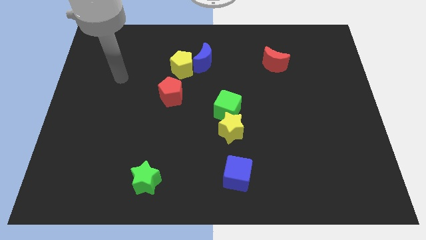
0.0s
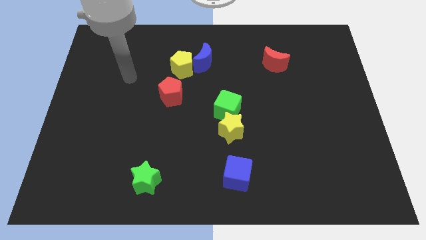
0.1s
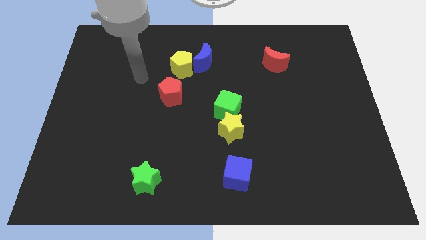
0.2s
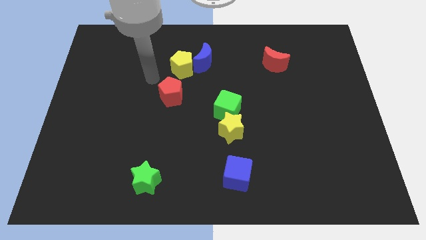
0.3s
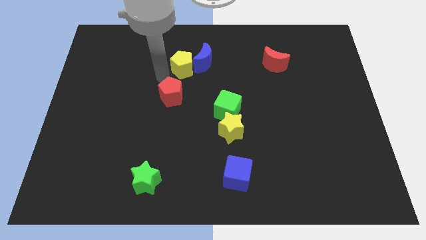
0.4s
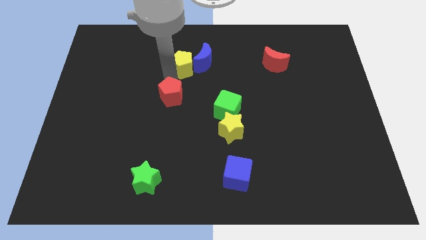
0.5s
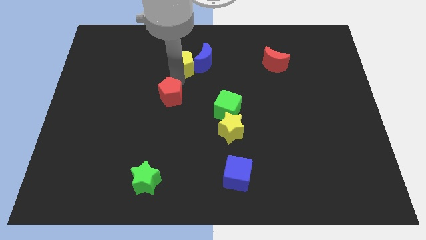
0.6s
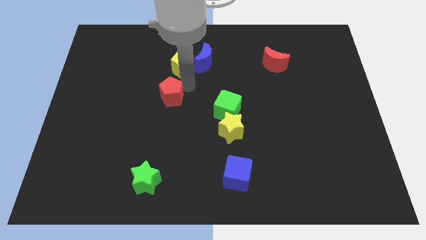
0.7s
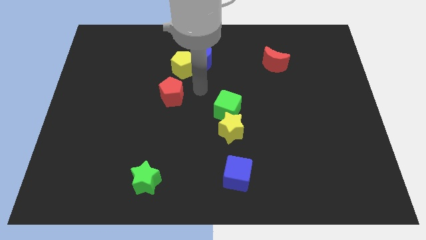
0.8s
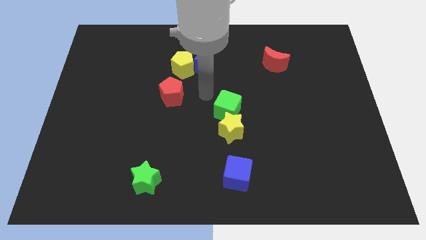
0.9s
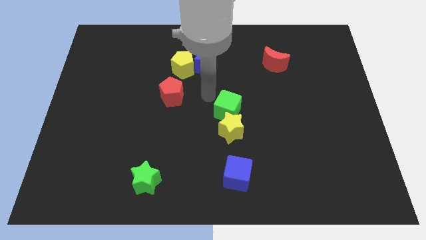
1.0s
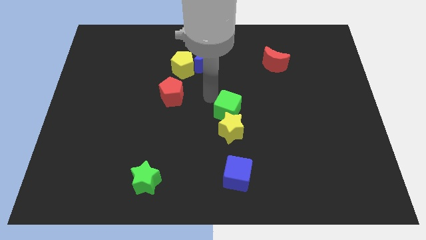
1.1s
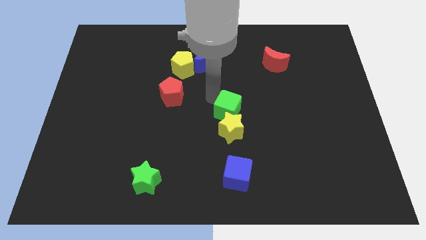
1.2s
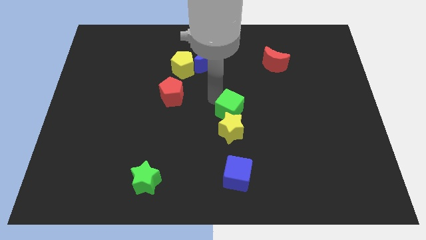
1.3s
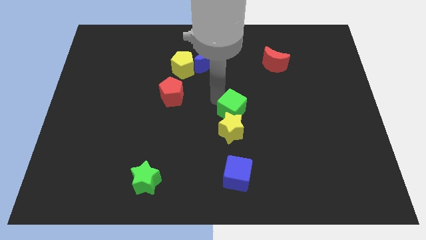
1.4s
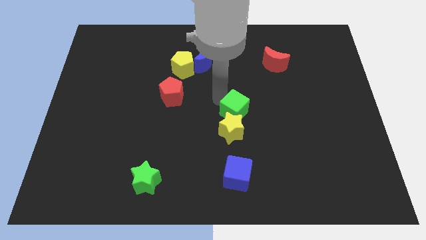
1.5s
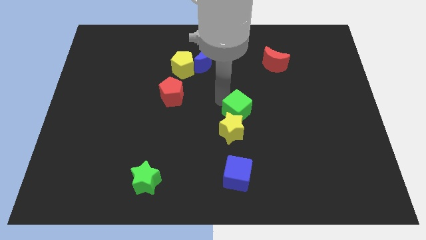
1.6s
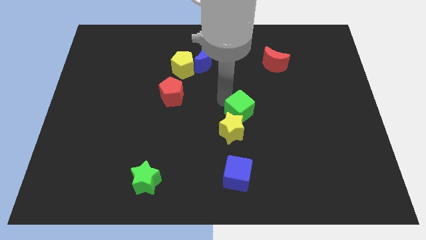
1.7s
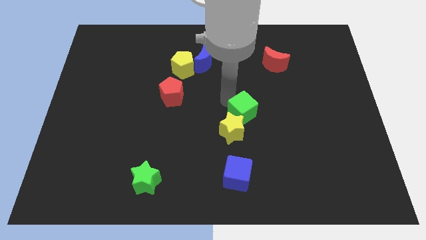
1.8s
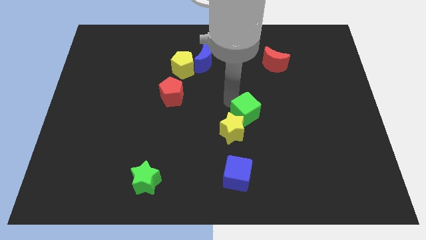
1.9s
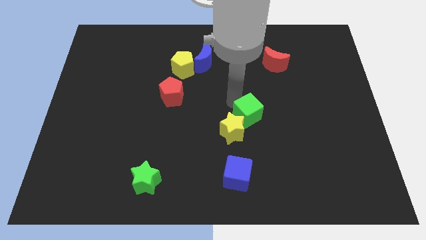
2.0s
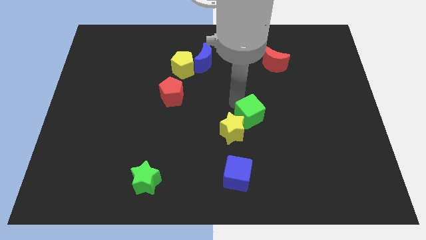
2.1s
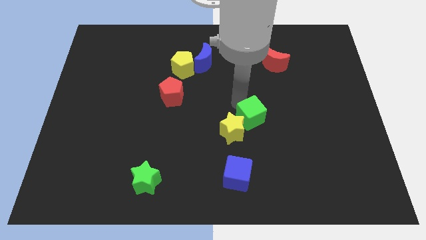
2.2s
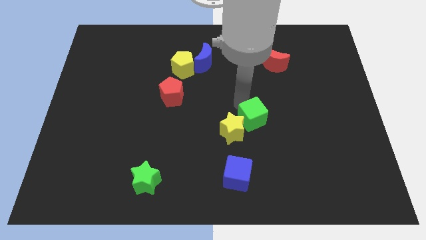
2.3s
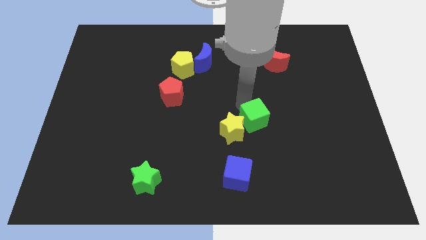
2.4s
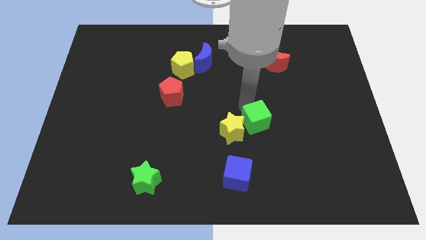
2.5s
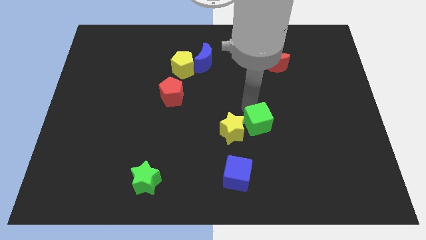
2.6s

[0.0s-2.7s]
move the green cube diagonally downwards and to the right somewhat

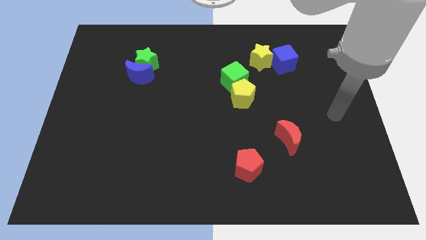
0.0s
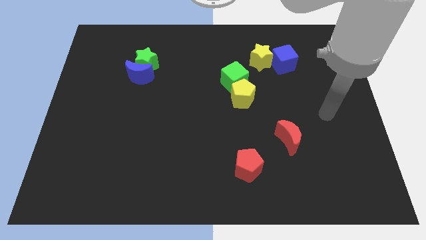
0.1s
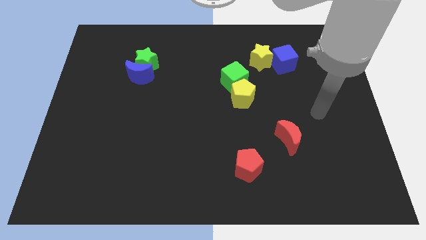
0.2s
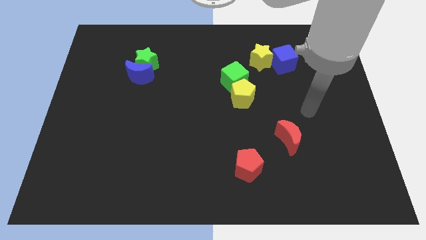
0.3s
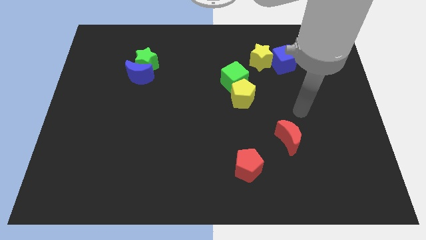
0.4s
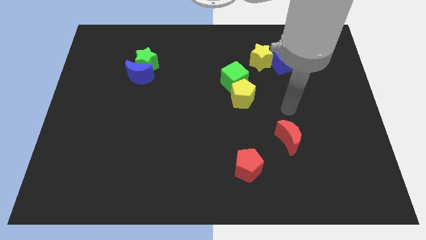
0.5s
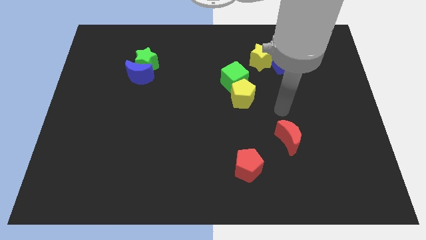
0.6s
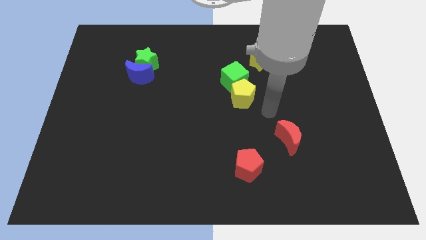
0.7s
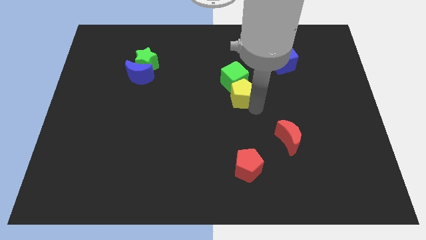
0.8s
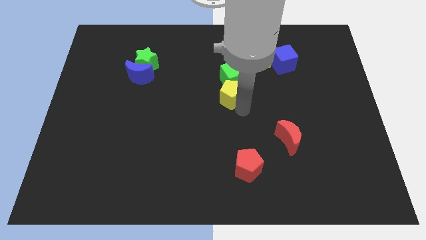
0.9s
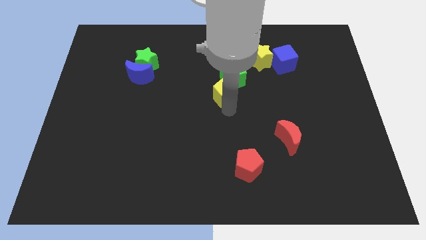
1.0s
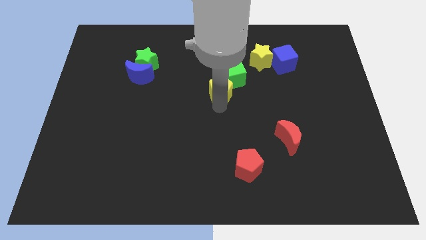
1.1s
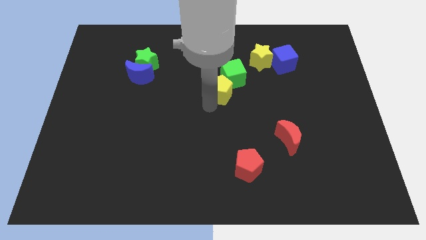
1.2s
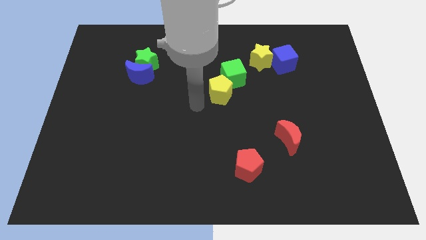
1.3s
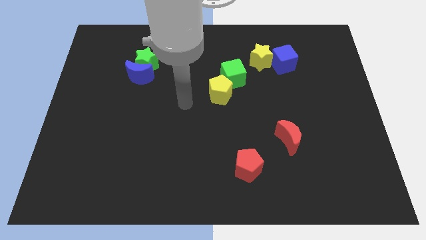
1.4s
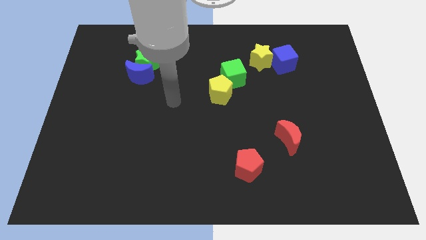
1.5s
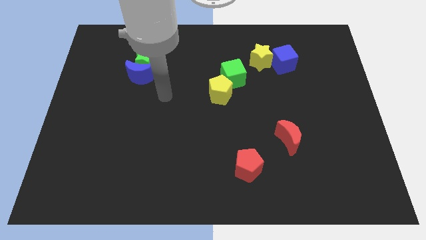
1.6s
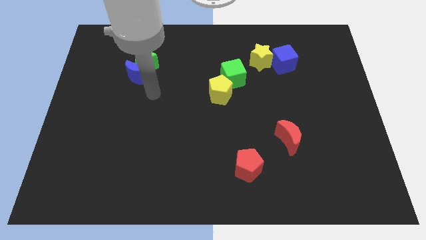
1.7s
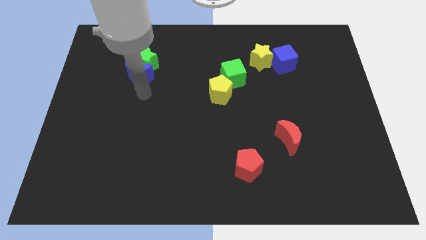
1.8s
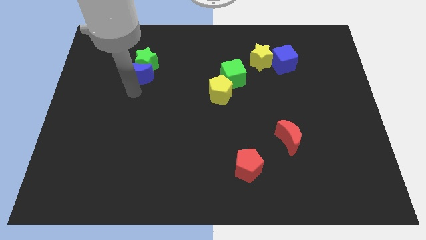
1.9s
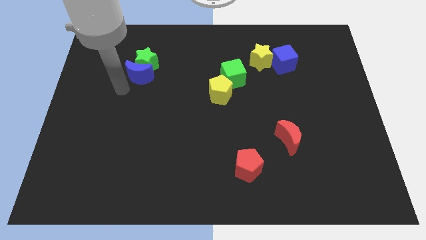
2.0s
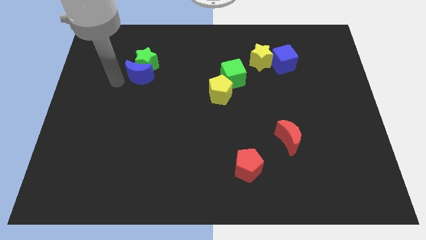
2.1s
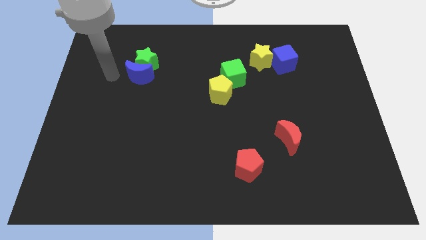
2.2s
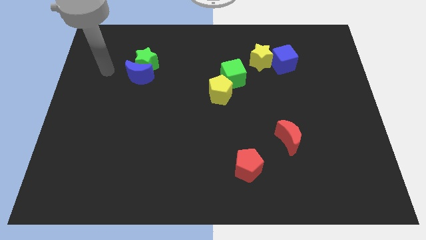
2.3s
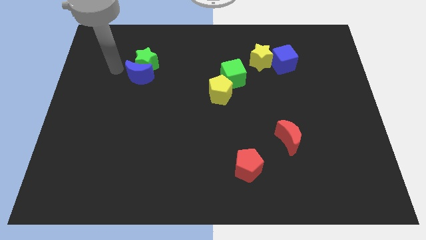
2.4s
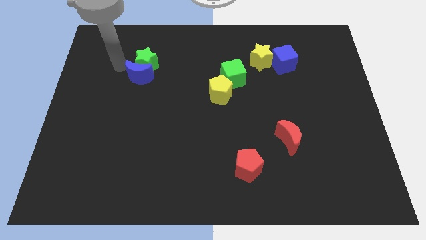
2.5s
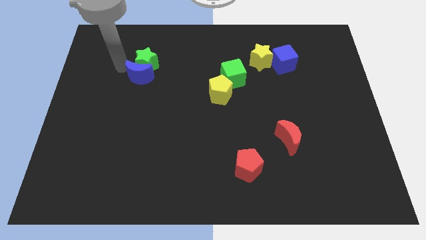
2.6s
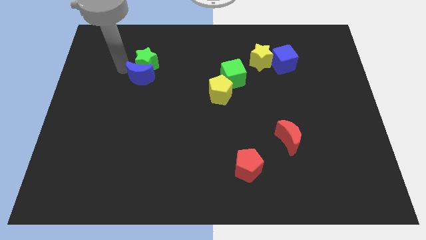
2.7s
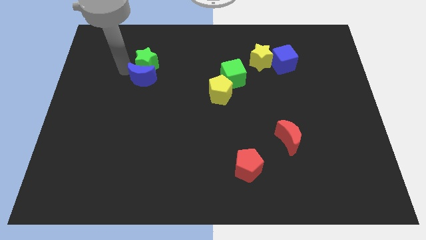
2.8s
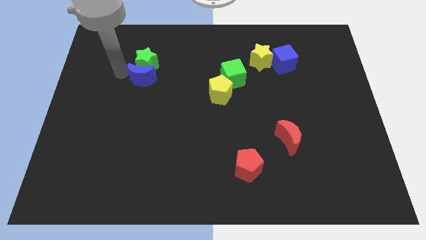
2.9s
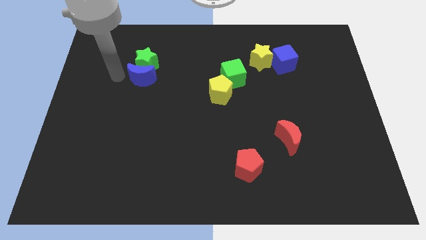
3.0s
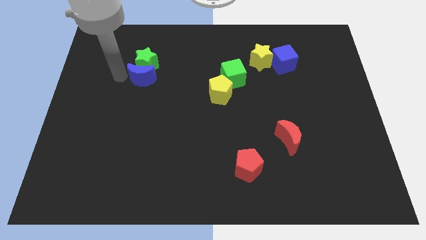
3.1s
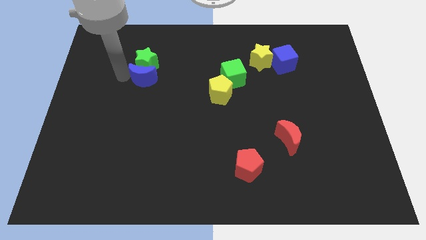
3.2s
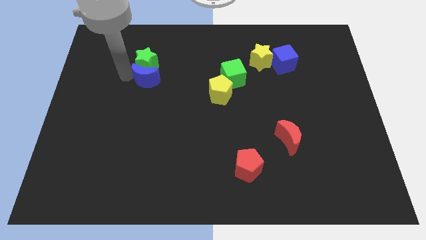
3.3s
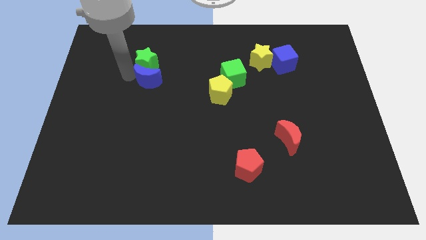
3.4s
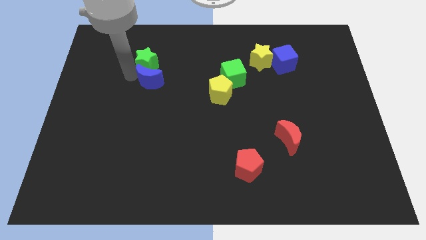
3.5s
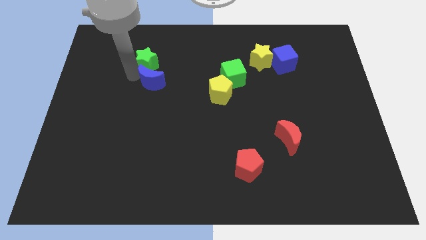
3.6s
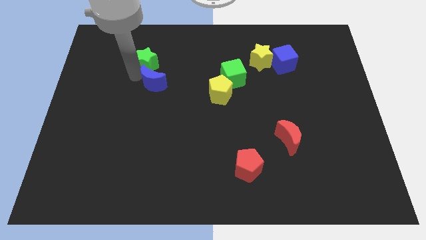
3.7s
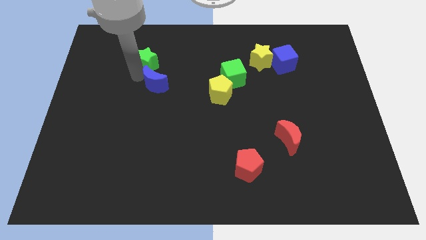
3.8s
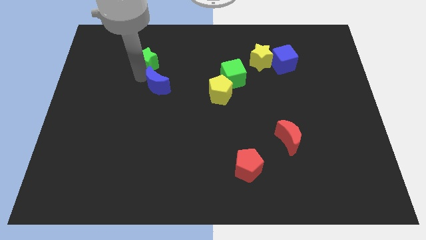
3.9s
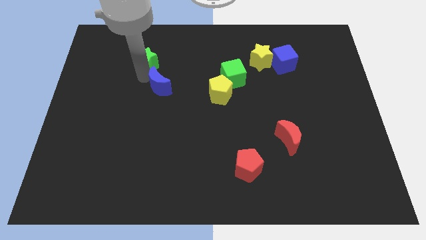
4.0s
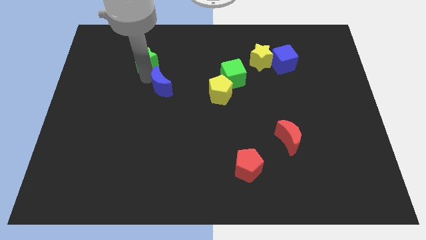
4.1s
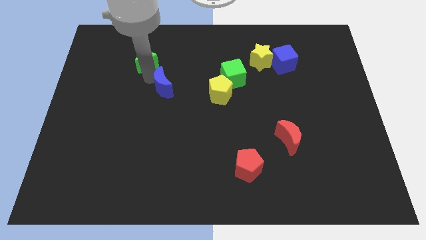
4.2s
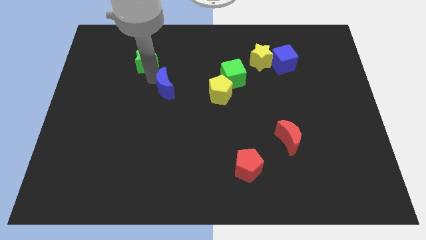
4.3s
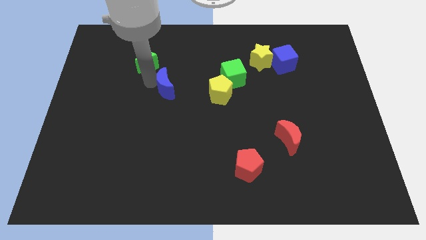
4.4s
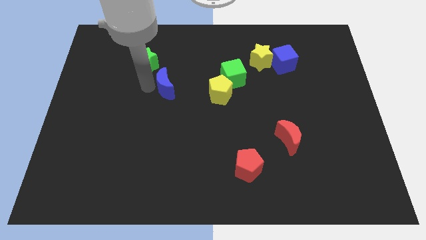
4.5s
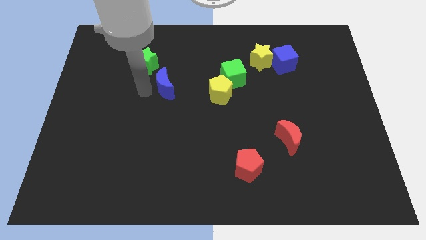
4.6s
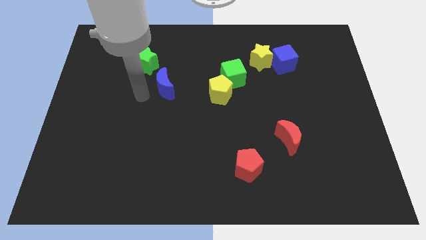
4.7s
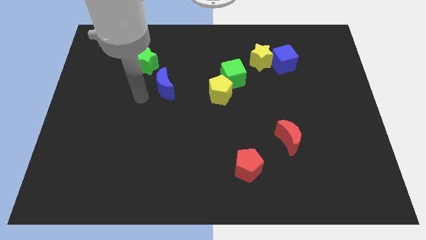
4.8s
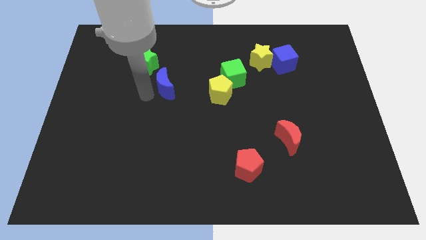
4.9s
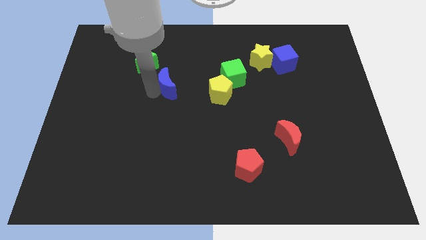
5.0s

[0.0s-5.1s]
move the blue moon a little bit to the right
